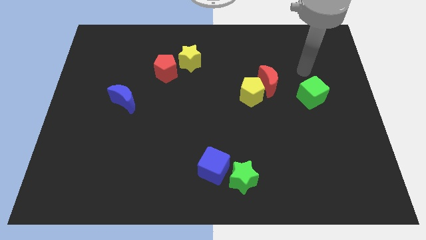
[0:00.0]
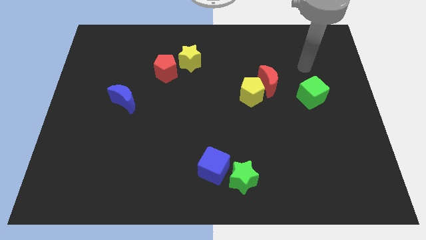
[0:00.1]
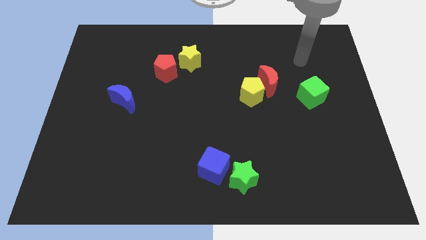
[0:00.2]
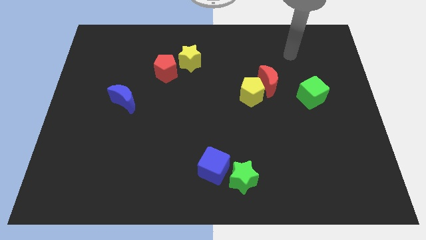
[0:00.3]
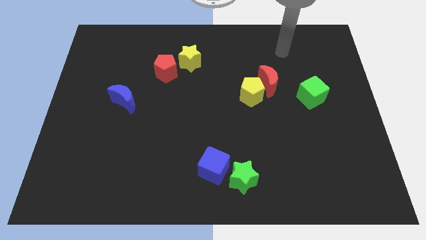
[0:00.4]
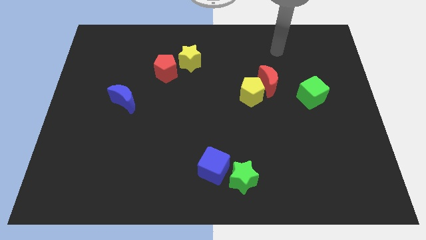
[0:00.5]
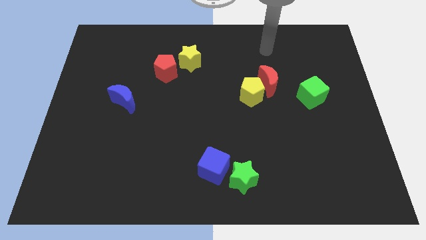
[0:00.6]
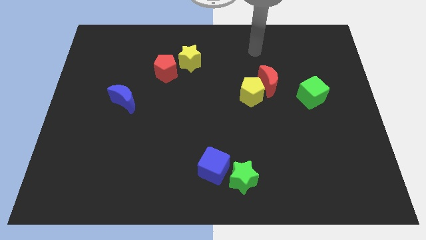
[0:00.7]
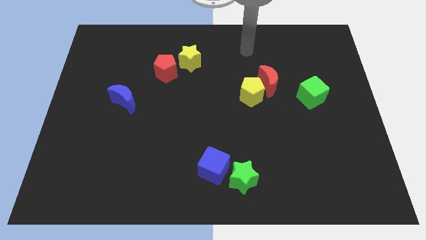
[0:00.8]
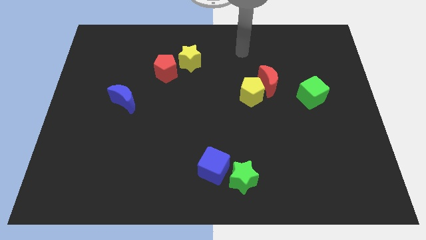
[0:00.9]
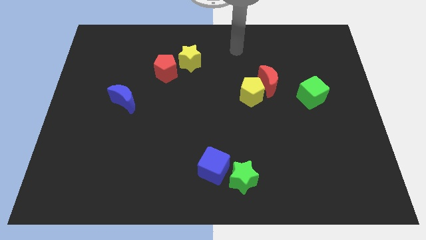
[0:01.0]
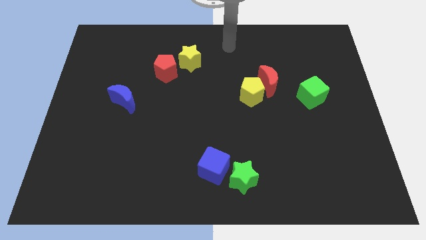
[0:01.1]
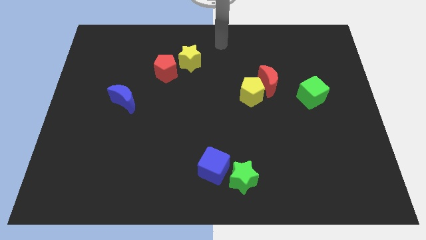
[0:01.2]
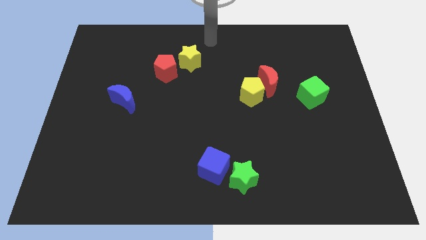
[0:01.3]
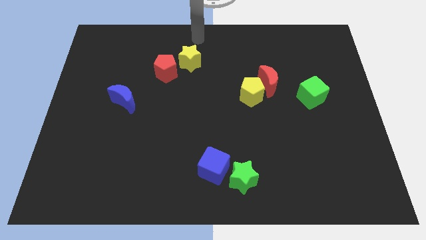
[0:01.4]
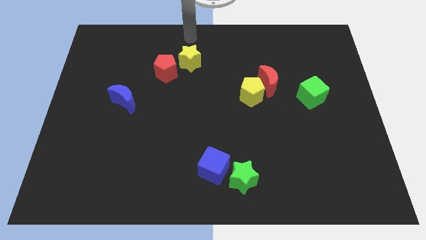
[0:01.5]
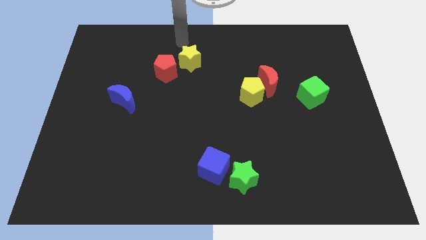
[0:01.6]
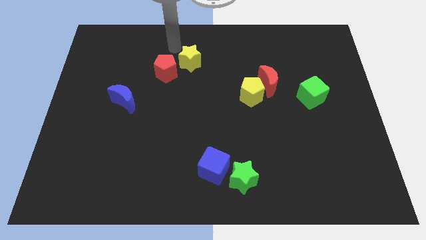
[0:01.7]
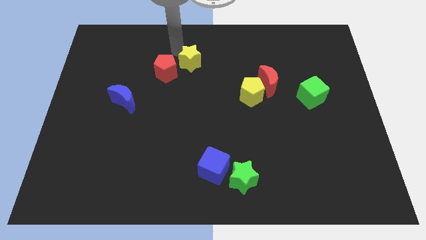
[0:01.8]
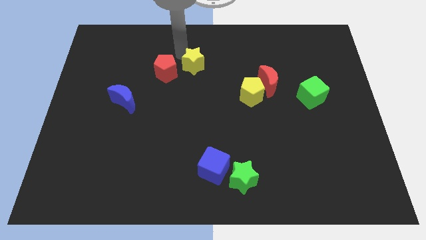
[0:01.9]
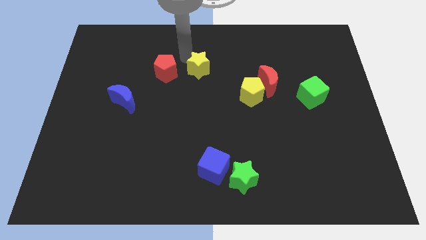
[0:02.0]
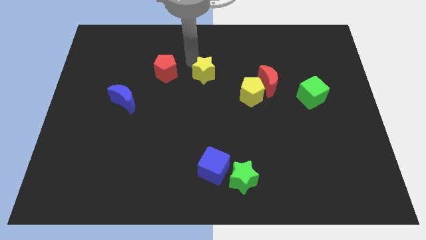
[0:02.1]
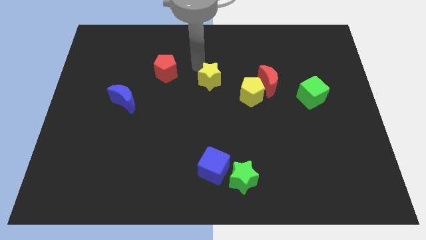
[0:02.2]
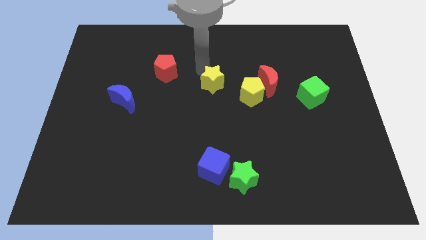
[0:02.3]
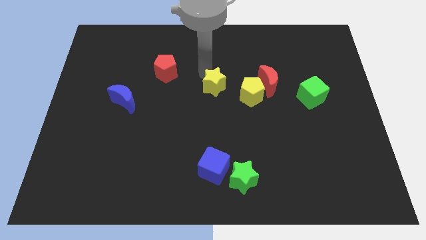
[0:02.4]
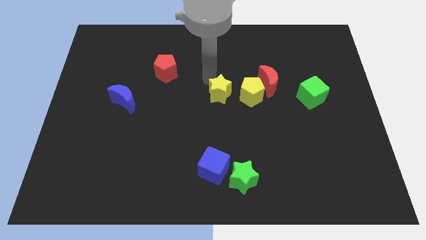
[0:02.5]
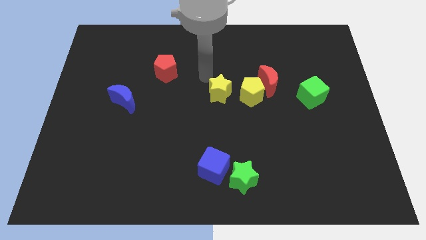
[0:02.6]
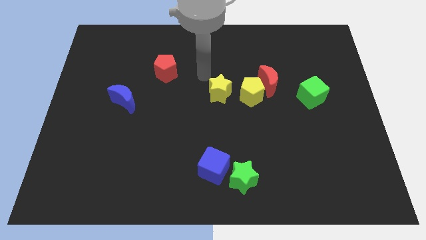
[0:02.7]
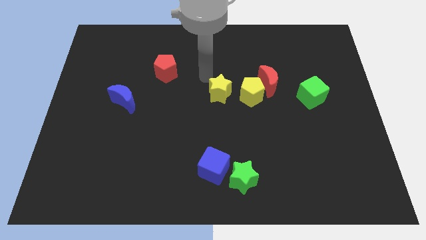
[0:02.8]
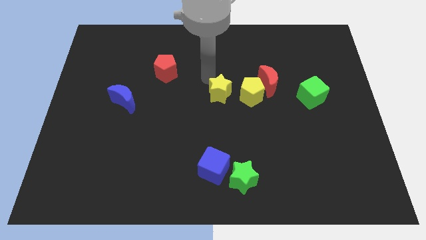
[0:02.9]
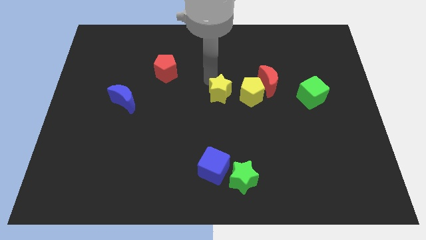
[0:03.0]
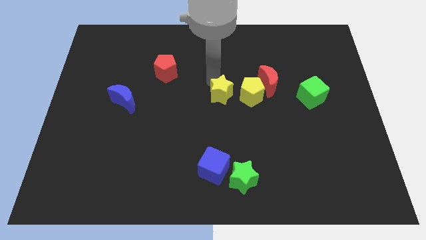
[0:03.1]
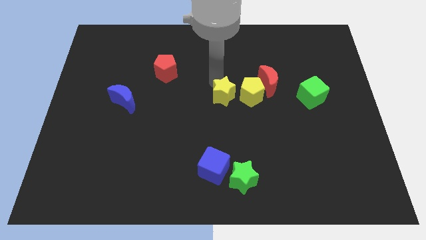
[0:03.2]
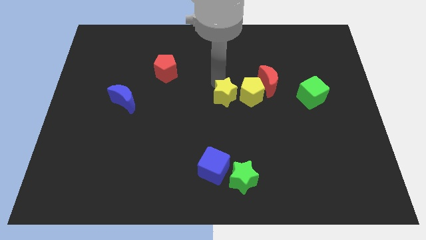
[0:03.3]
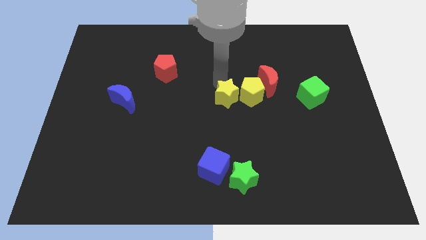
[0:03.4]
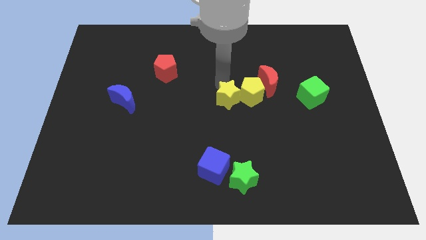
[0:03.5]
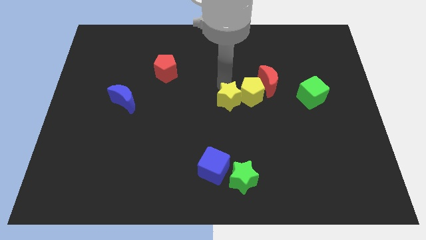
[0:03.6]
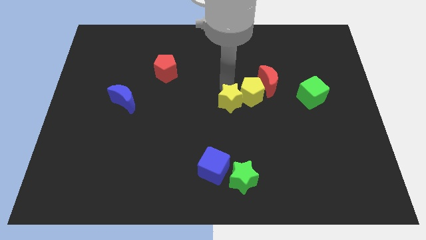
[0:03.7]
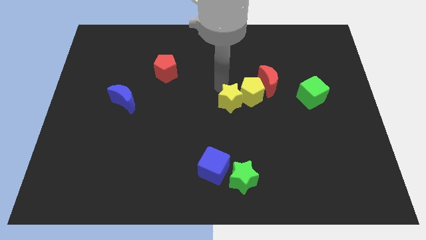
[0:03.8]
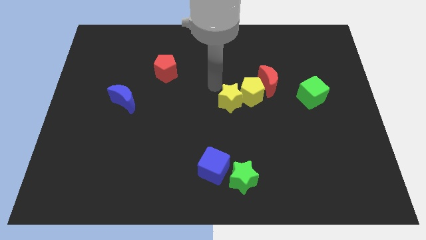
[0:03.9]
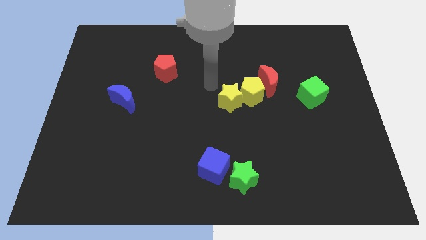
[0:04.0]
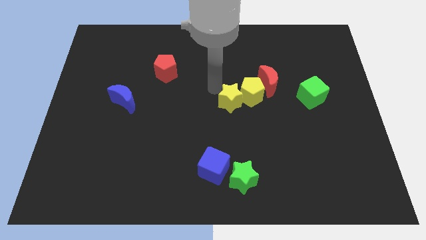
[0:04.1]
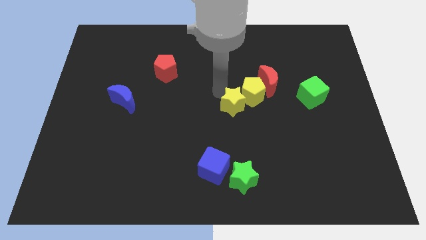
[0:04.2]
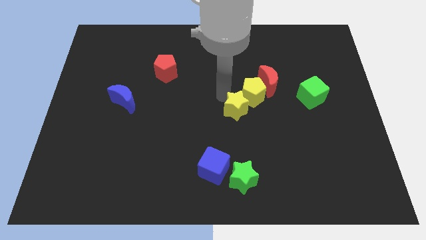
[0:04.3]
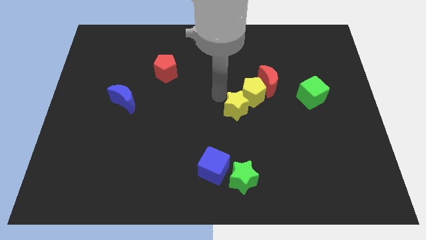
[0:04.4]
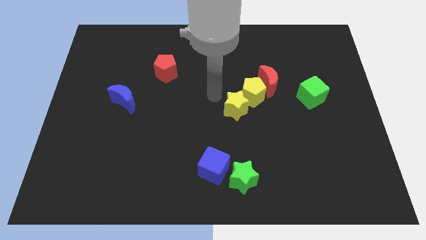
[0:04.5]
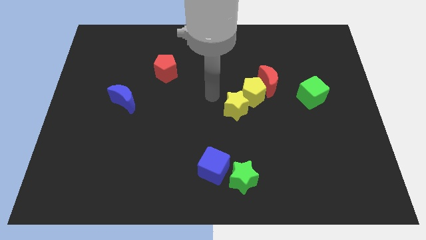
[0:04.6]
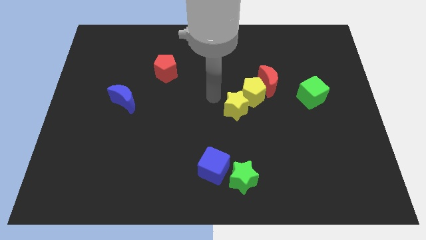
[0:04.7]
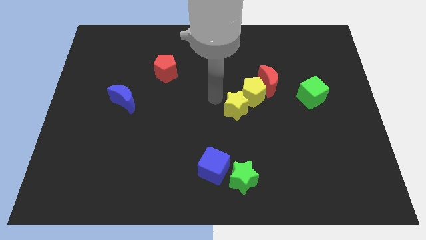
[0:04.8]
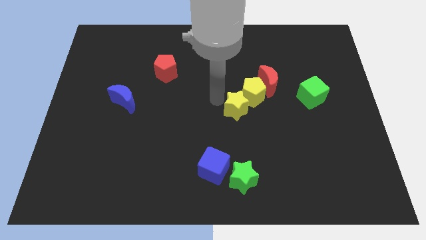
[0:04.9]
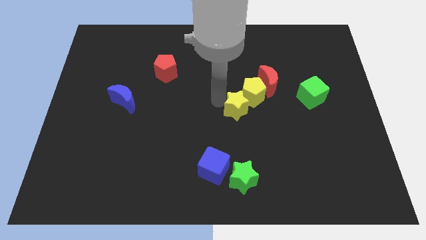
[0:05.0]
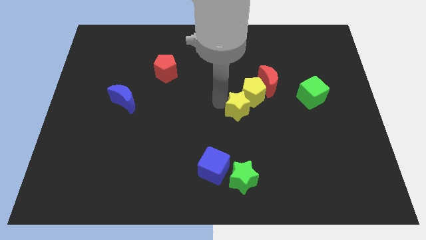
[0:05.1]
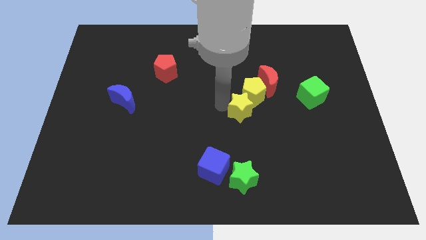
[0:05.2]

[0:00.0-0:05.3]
slide the yellow star down and to the right

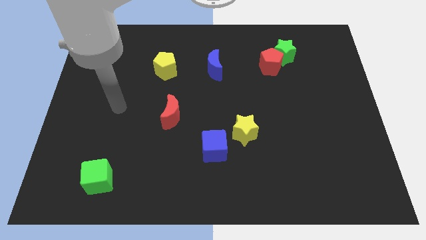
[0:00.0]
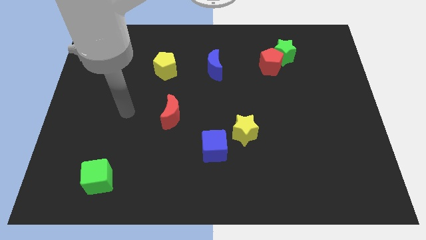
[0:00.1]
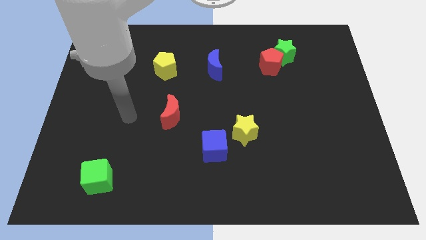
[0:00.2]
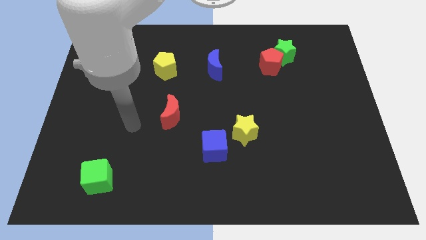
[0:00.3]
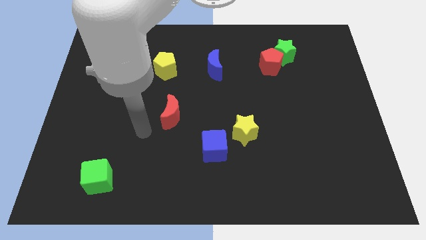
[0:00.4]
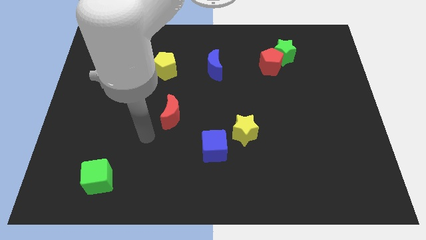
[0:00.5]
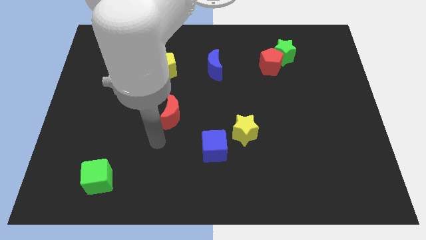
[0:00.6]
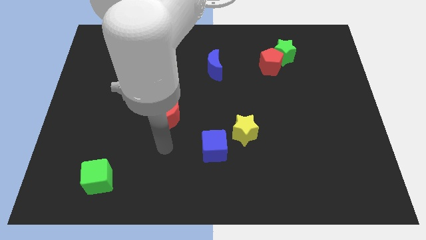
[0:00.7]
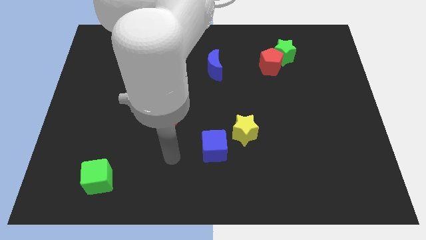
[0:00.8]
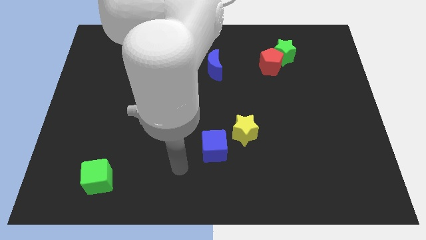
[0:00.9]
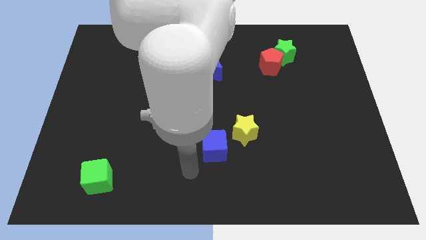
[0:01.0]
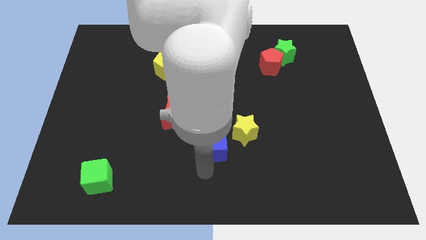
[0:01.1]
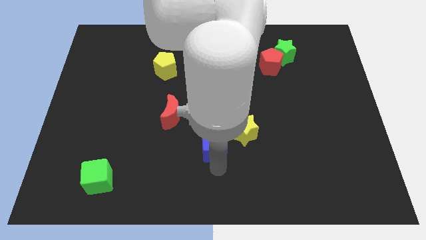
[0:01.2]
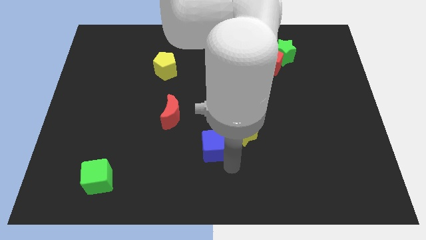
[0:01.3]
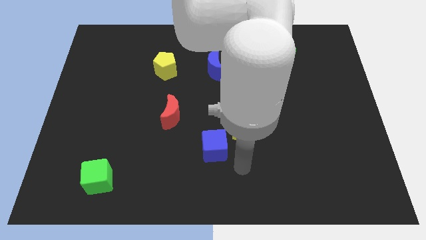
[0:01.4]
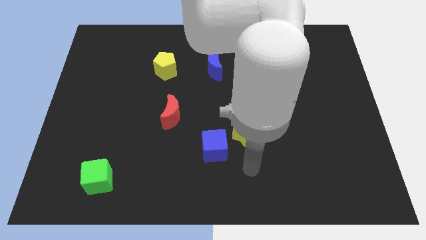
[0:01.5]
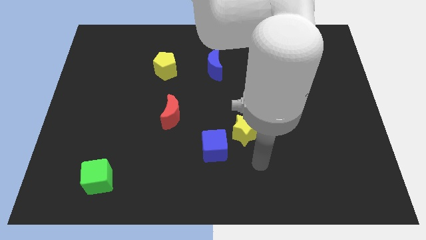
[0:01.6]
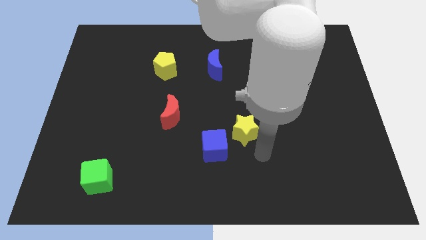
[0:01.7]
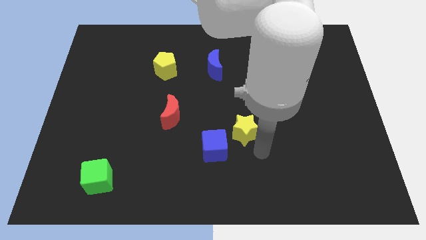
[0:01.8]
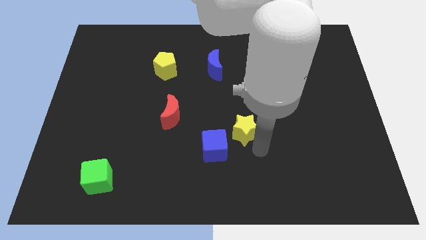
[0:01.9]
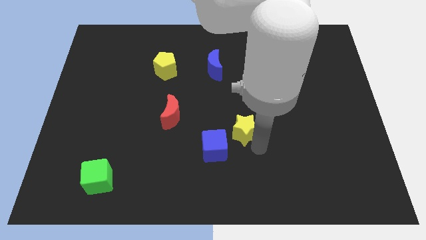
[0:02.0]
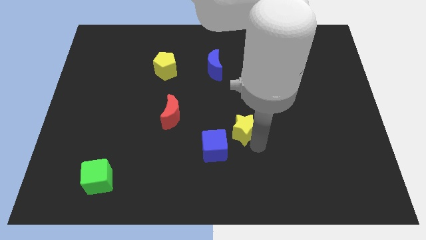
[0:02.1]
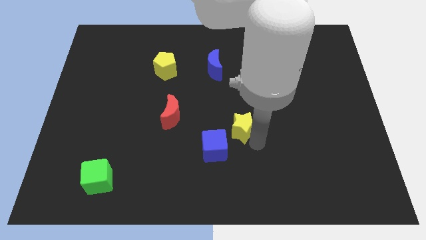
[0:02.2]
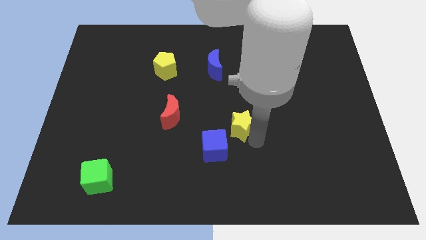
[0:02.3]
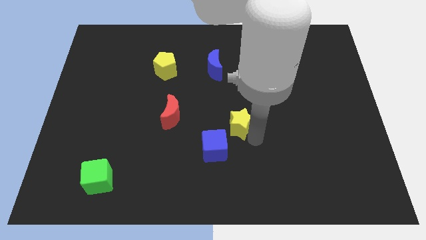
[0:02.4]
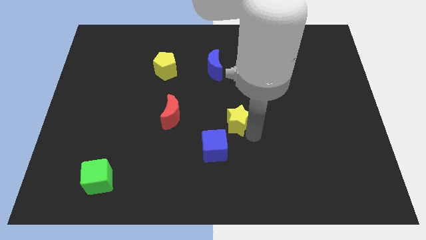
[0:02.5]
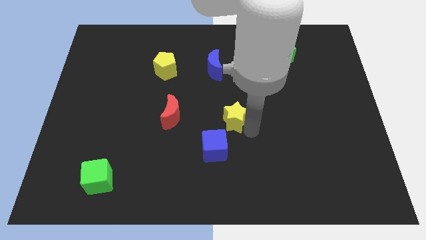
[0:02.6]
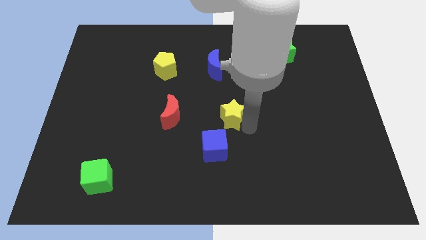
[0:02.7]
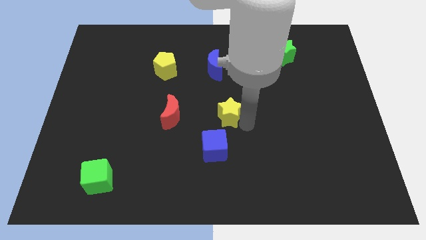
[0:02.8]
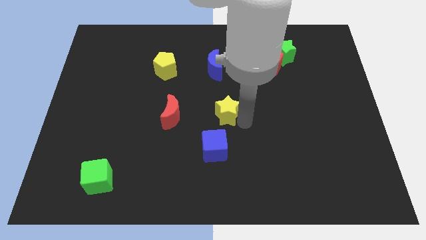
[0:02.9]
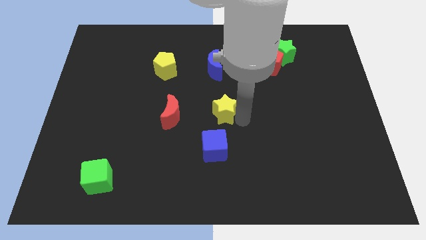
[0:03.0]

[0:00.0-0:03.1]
slide the yellow star upwards and to the left diagonally slightly
